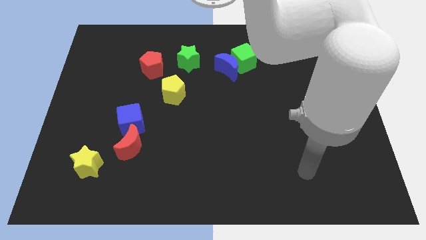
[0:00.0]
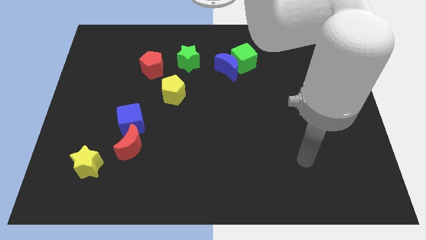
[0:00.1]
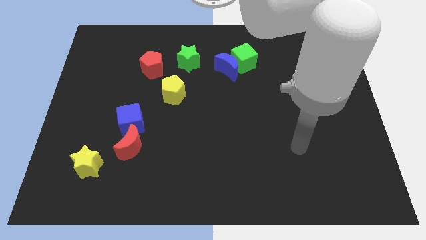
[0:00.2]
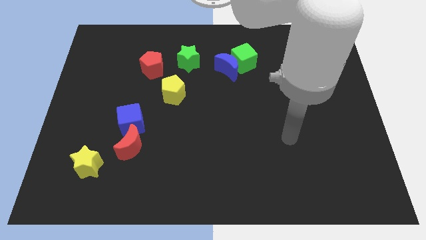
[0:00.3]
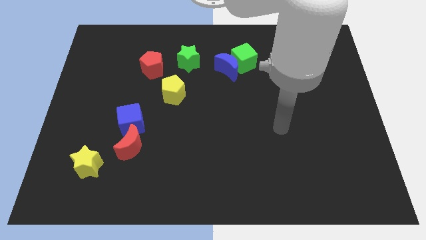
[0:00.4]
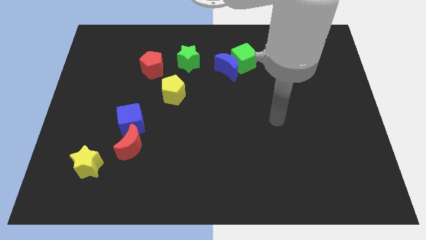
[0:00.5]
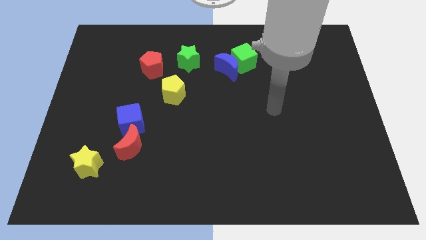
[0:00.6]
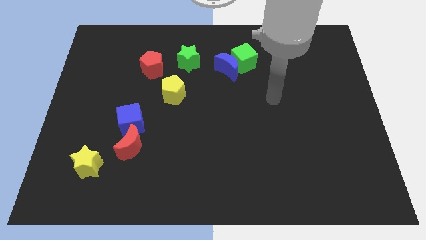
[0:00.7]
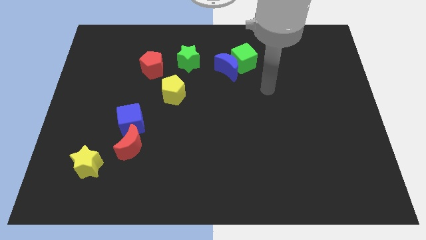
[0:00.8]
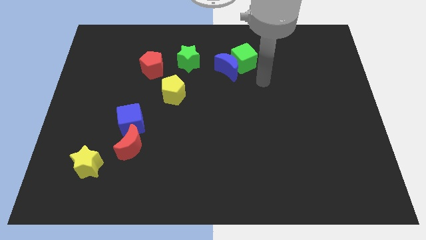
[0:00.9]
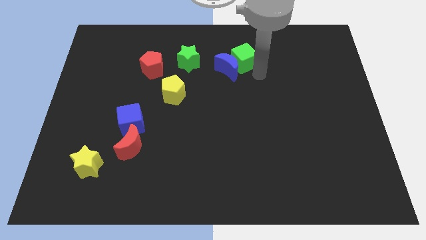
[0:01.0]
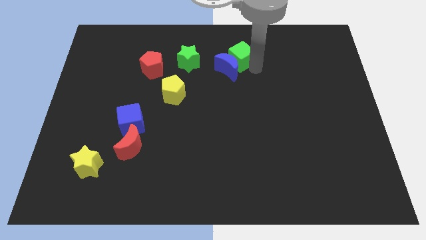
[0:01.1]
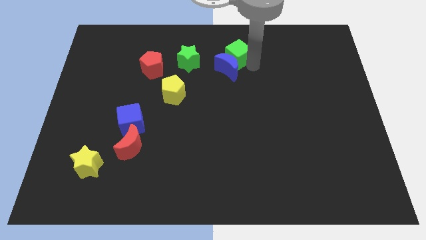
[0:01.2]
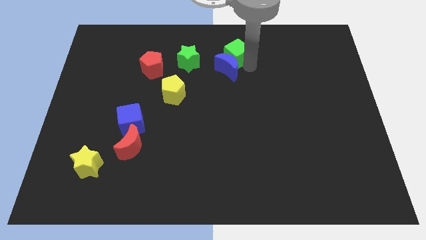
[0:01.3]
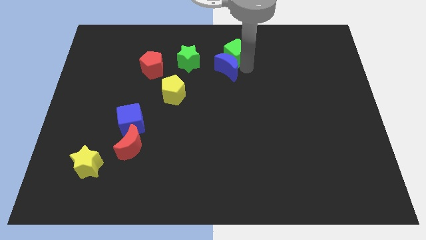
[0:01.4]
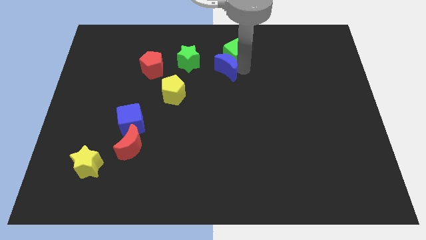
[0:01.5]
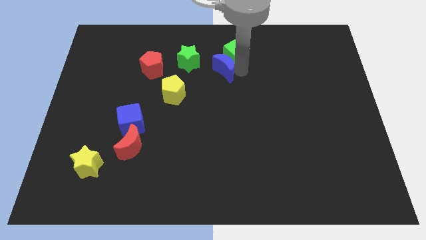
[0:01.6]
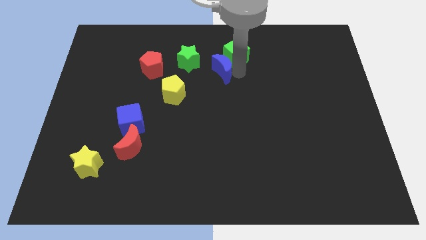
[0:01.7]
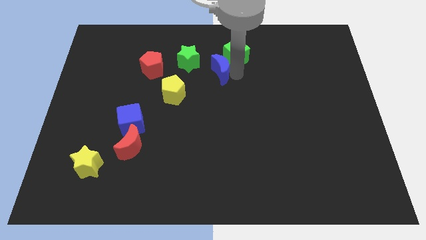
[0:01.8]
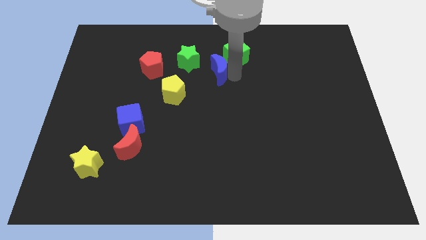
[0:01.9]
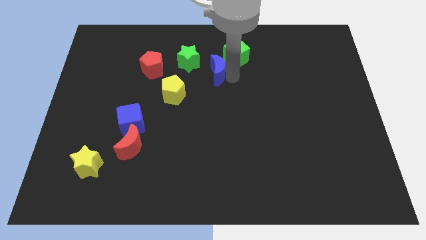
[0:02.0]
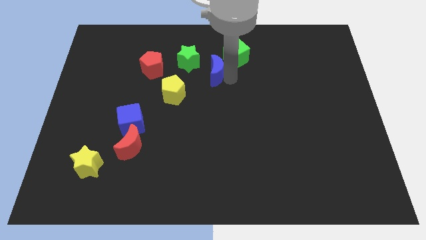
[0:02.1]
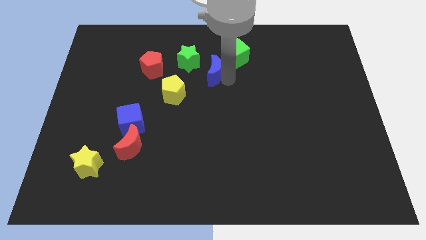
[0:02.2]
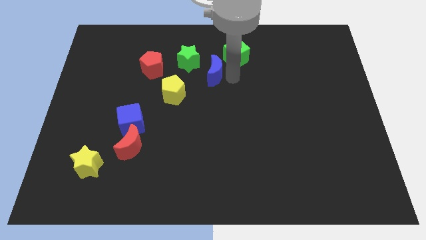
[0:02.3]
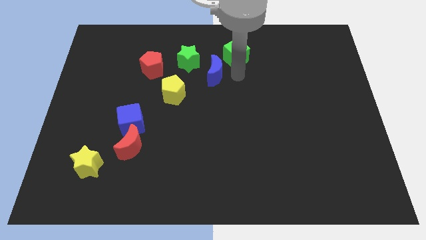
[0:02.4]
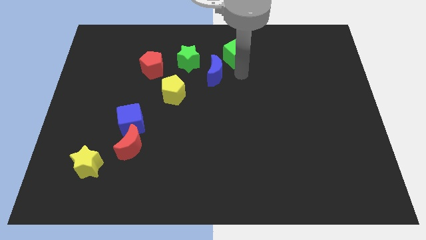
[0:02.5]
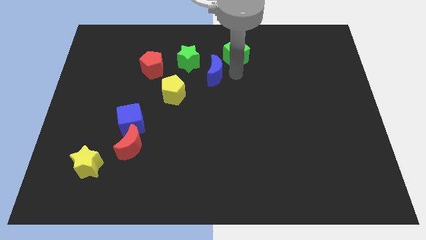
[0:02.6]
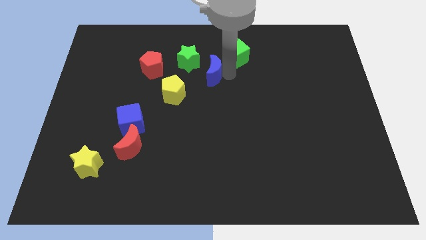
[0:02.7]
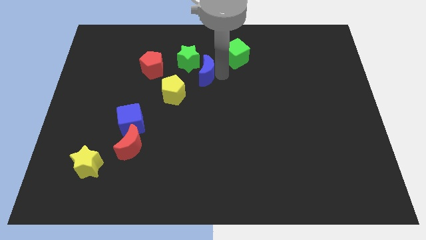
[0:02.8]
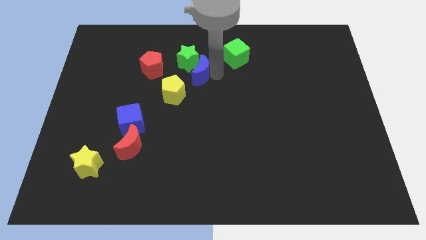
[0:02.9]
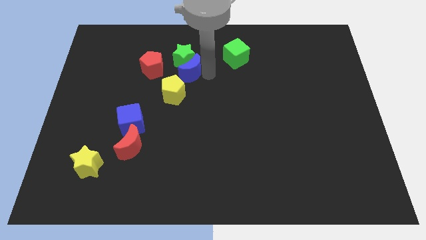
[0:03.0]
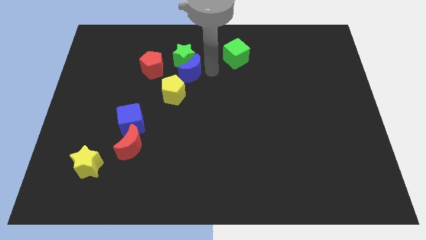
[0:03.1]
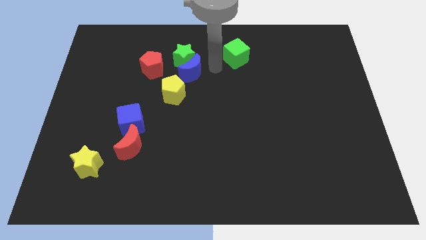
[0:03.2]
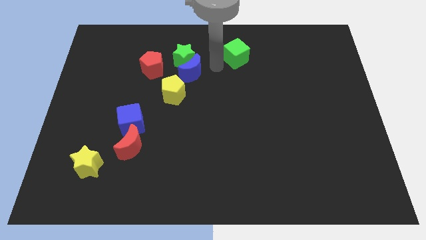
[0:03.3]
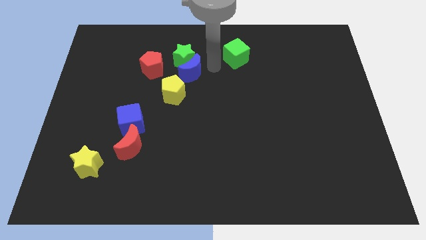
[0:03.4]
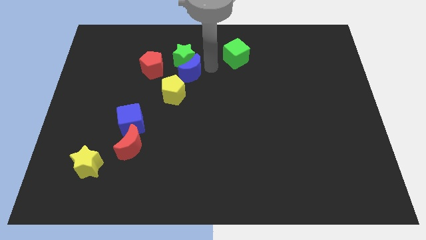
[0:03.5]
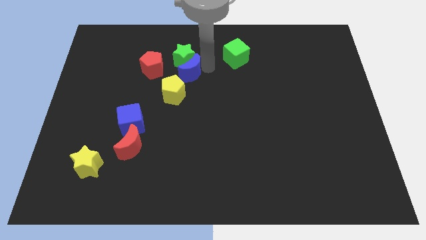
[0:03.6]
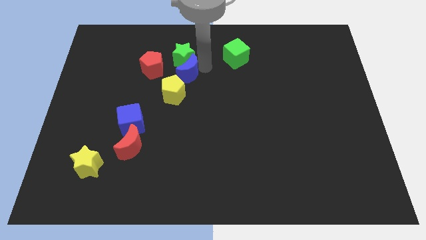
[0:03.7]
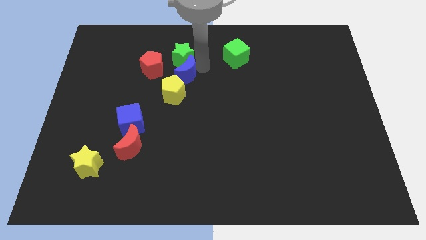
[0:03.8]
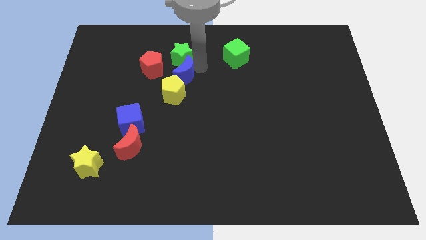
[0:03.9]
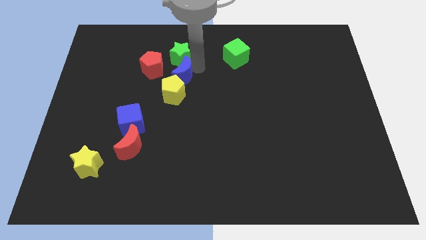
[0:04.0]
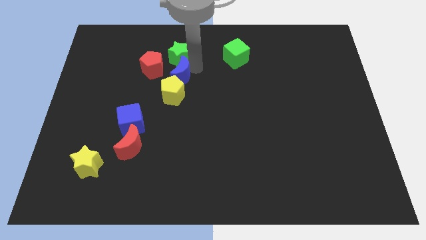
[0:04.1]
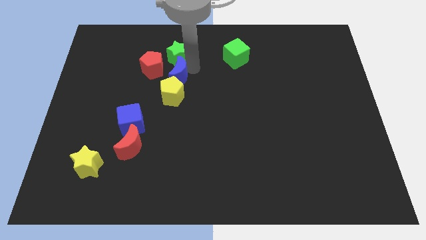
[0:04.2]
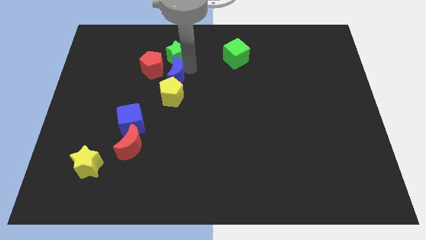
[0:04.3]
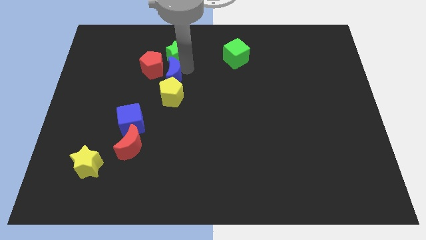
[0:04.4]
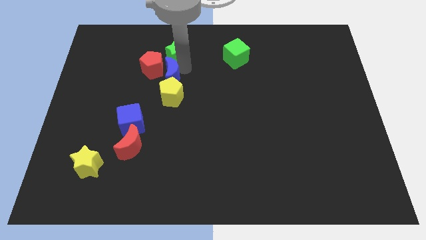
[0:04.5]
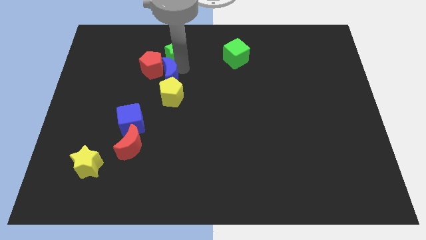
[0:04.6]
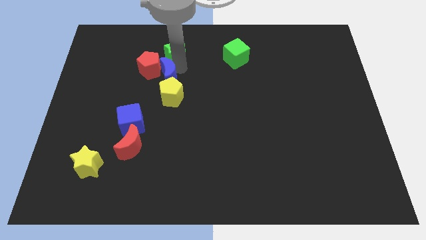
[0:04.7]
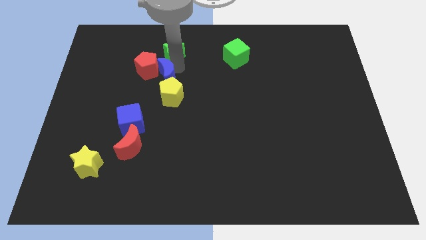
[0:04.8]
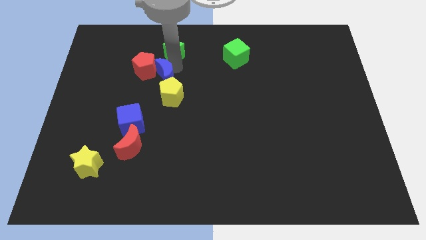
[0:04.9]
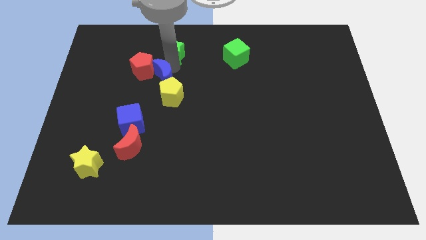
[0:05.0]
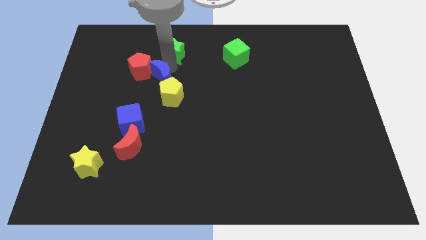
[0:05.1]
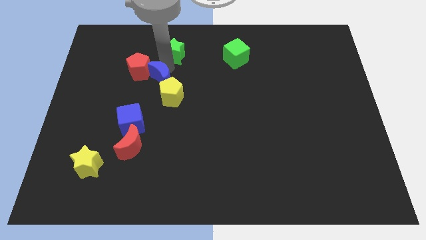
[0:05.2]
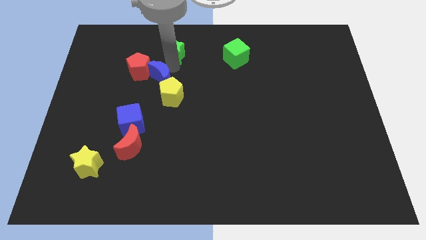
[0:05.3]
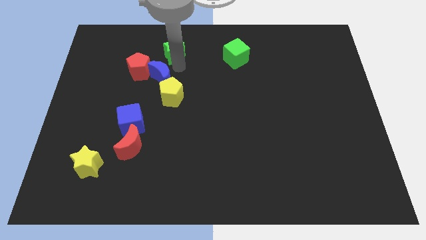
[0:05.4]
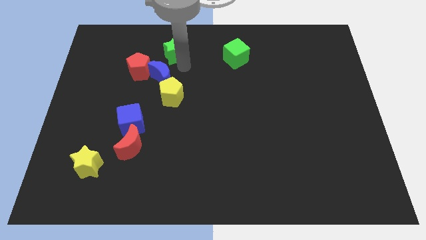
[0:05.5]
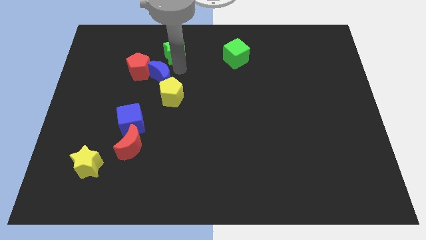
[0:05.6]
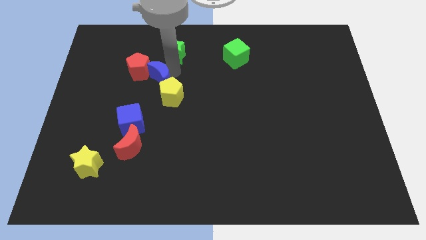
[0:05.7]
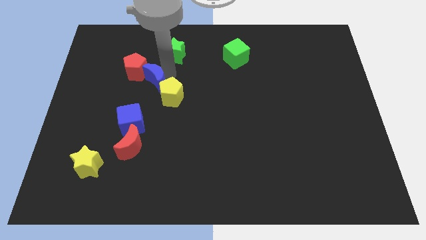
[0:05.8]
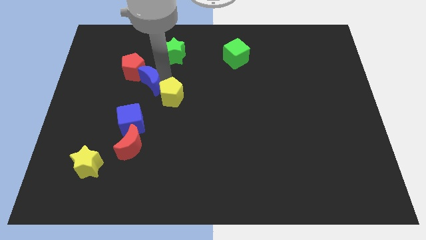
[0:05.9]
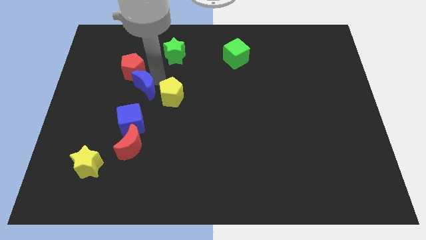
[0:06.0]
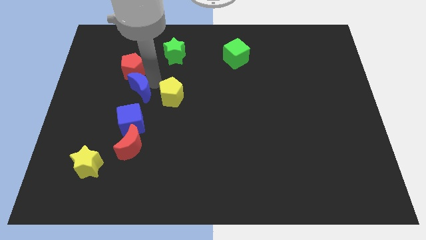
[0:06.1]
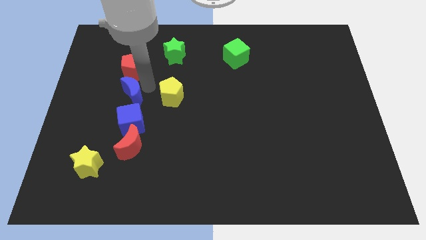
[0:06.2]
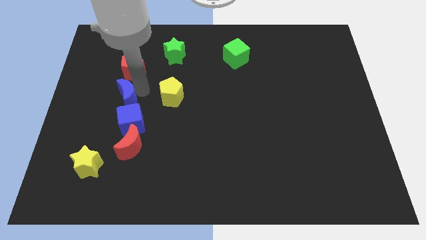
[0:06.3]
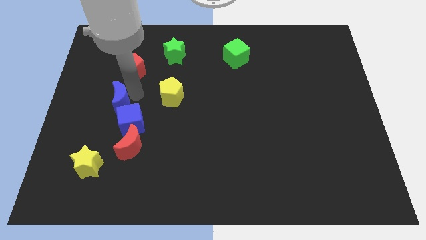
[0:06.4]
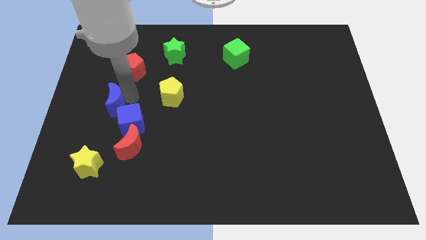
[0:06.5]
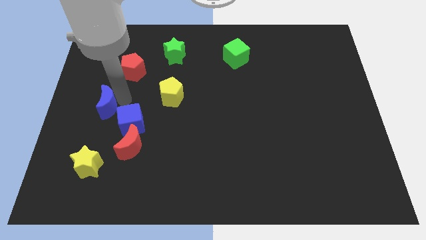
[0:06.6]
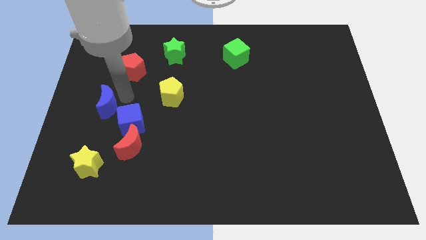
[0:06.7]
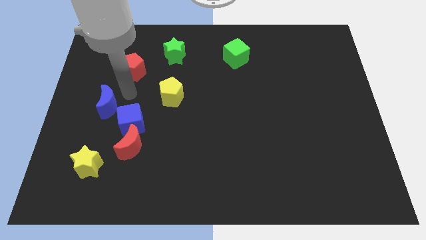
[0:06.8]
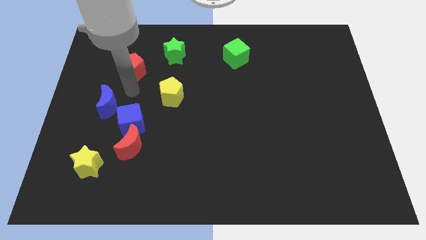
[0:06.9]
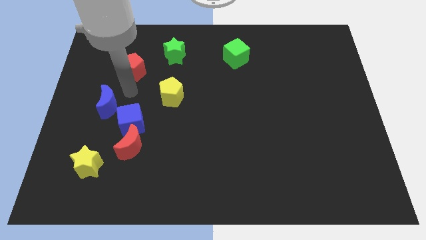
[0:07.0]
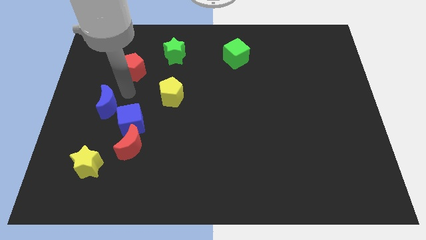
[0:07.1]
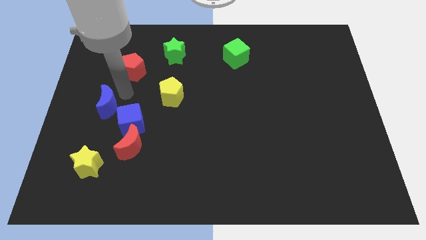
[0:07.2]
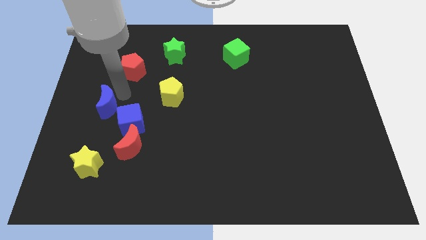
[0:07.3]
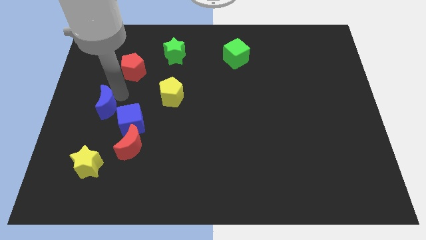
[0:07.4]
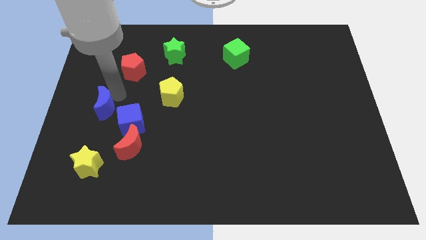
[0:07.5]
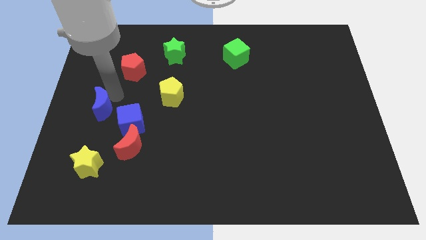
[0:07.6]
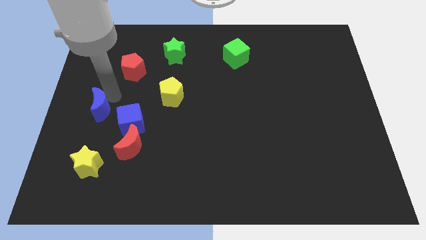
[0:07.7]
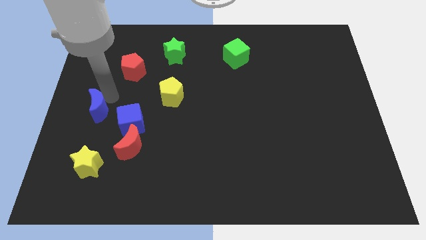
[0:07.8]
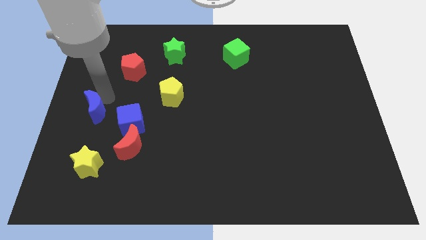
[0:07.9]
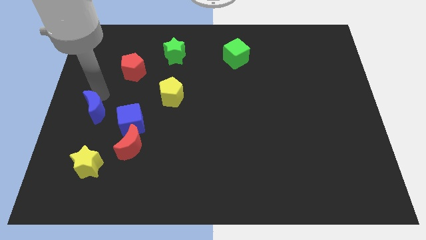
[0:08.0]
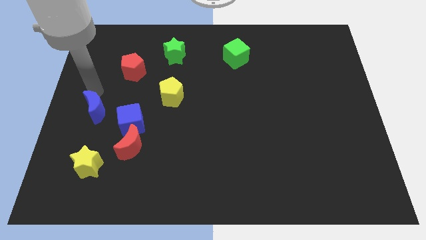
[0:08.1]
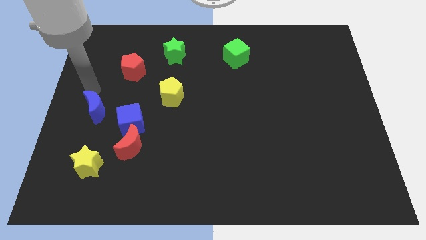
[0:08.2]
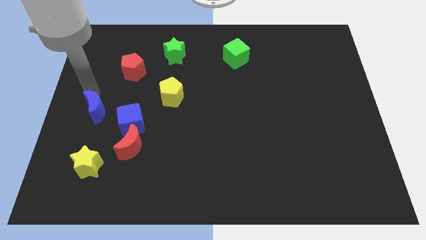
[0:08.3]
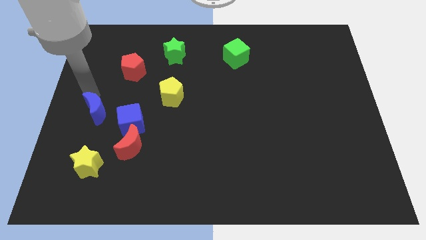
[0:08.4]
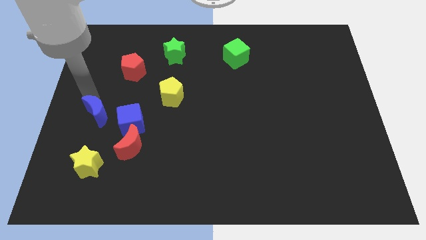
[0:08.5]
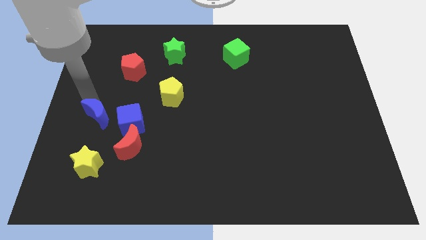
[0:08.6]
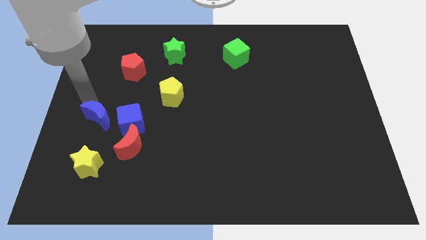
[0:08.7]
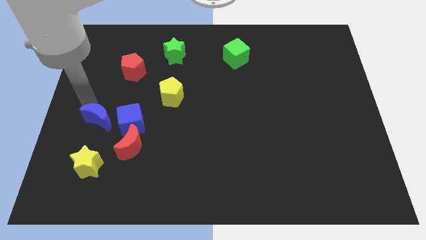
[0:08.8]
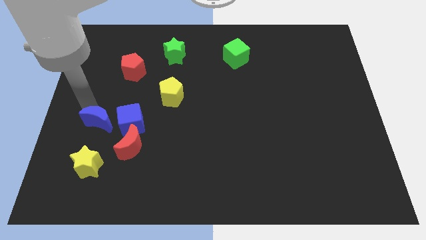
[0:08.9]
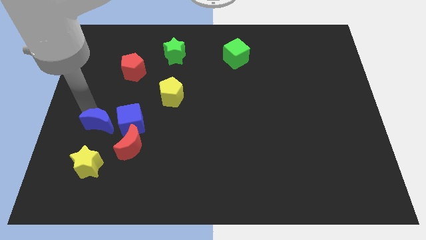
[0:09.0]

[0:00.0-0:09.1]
move the blue moon diagonally down and to the left of the blue cube
